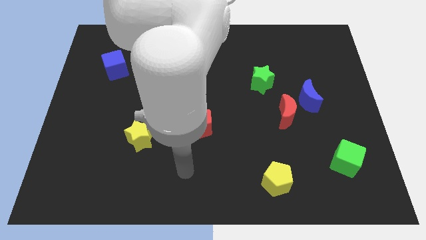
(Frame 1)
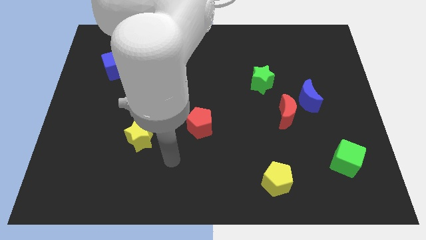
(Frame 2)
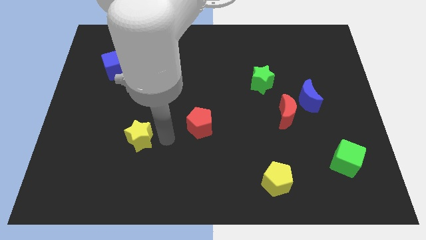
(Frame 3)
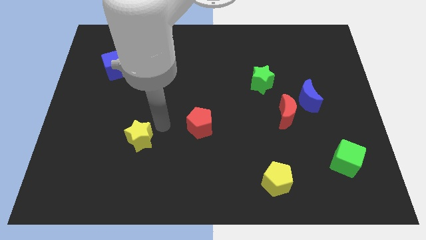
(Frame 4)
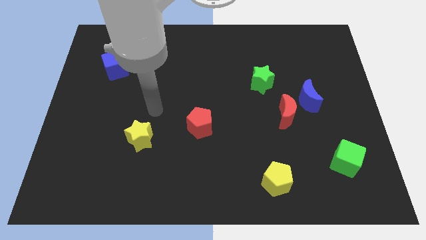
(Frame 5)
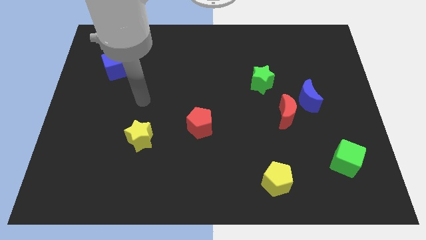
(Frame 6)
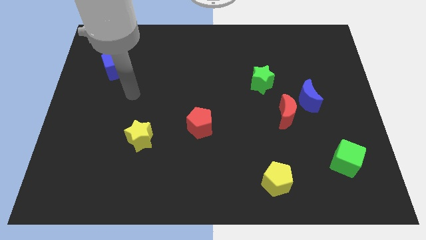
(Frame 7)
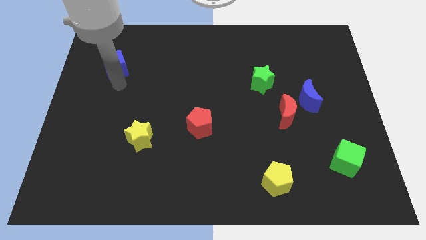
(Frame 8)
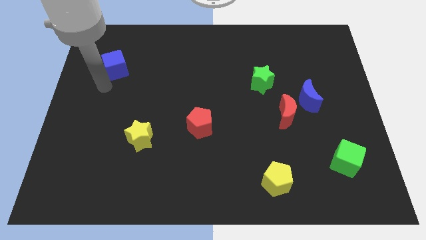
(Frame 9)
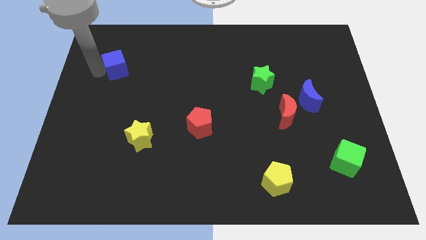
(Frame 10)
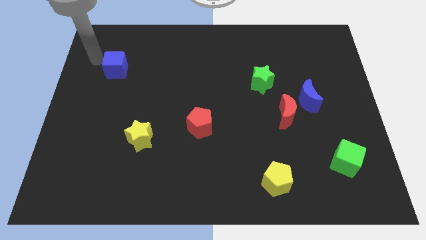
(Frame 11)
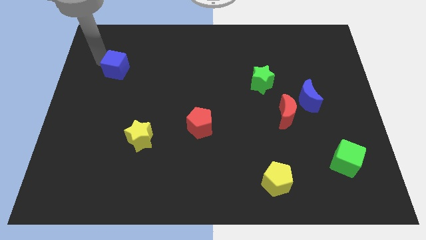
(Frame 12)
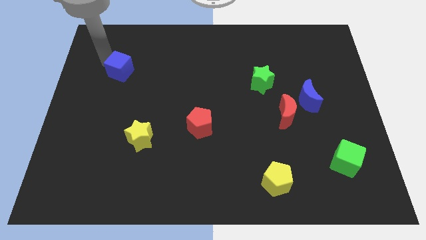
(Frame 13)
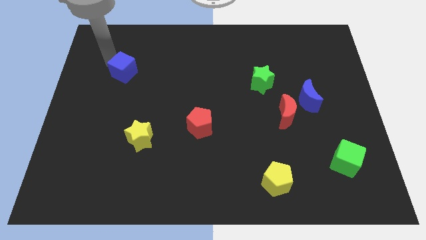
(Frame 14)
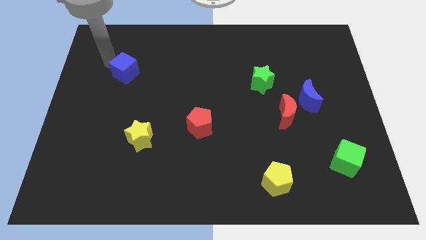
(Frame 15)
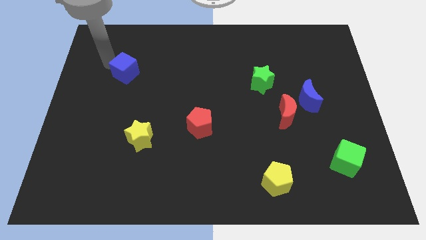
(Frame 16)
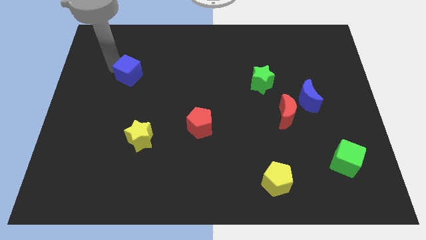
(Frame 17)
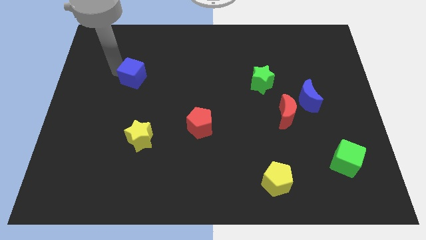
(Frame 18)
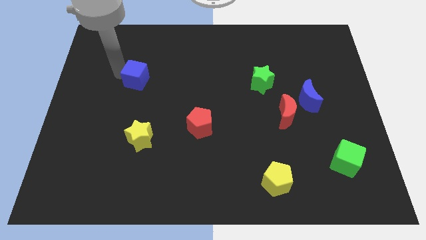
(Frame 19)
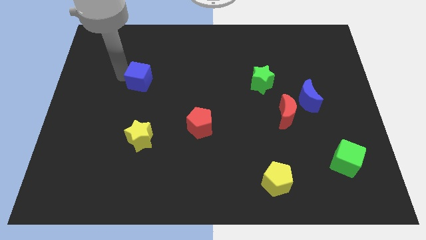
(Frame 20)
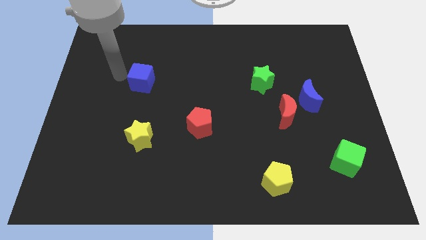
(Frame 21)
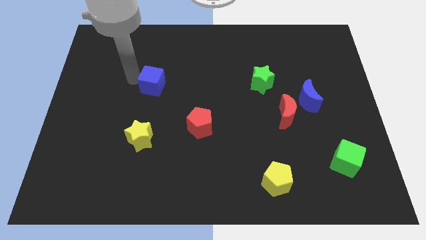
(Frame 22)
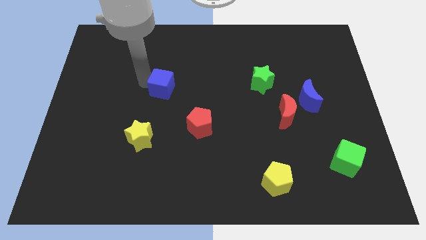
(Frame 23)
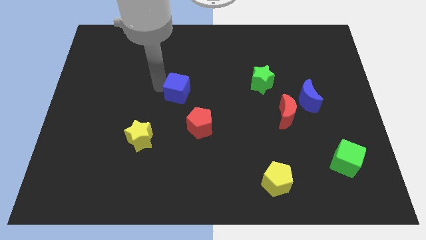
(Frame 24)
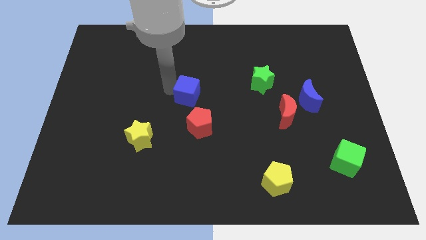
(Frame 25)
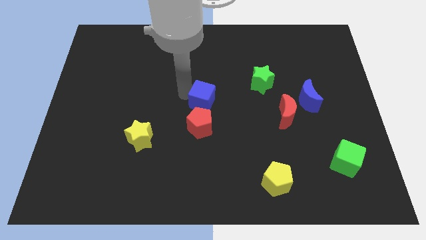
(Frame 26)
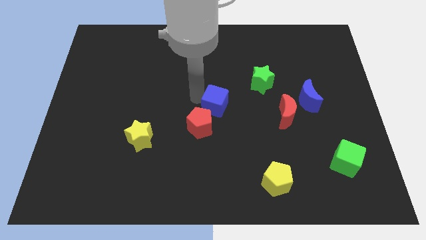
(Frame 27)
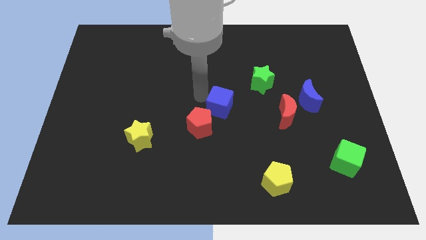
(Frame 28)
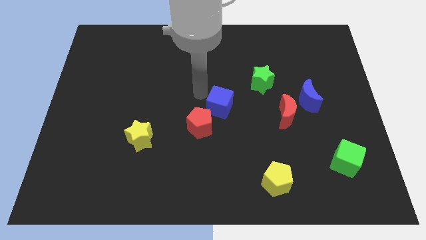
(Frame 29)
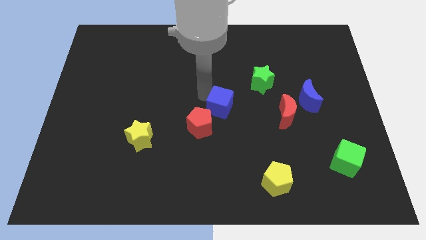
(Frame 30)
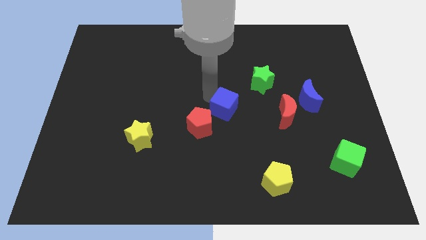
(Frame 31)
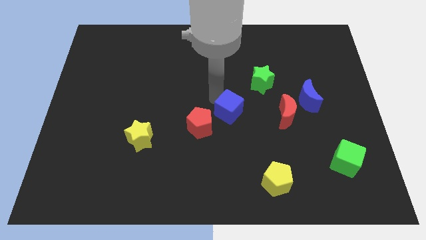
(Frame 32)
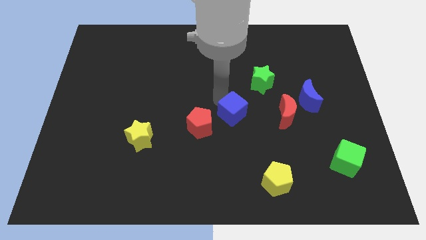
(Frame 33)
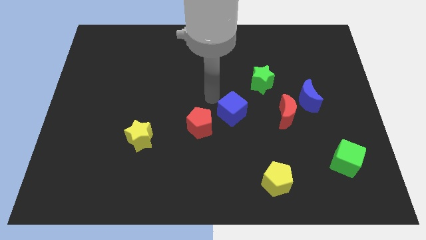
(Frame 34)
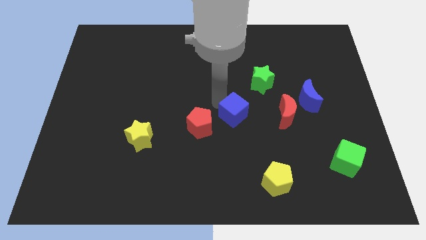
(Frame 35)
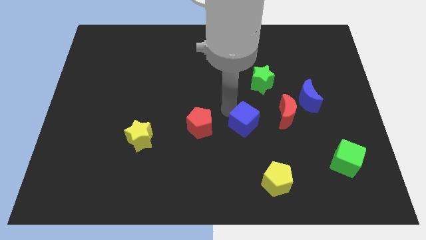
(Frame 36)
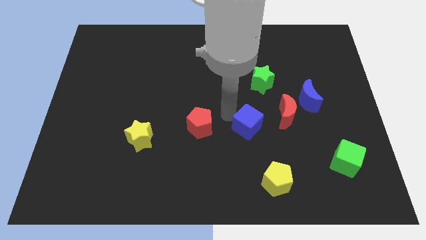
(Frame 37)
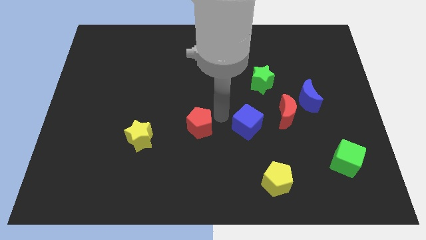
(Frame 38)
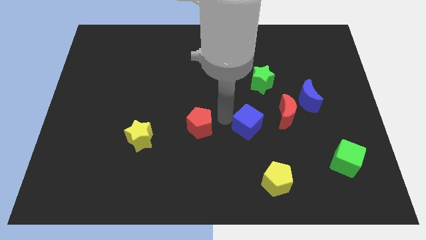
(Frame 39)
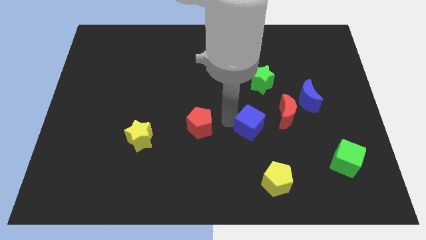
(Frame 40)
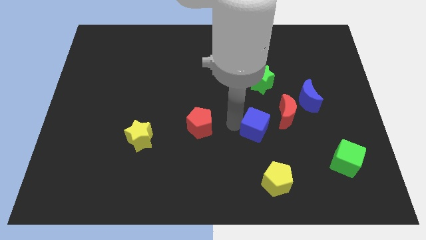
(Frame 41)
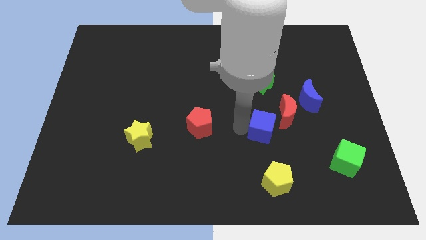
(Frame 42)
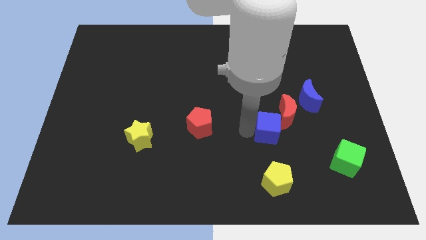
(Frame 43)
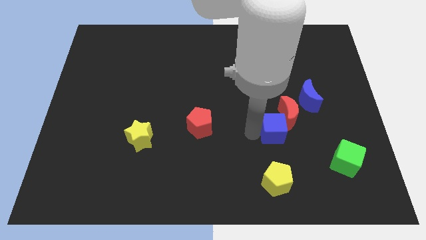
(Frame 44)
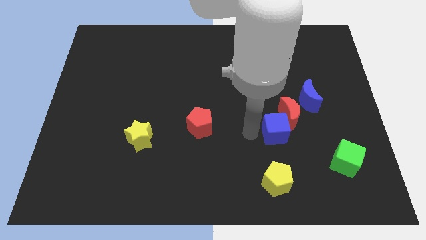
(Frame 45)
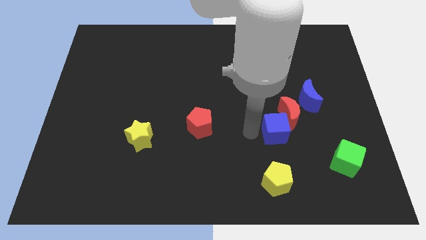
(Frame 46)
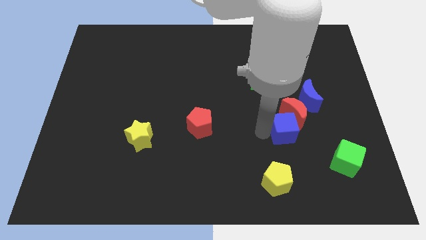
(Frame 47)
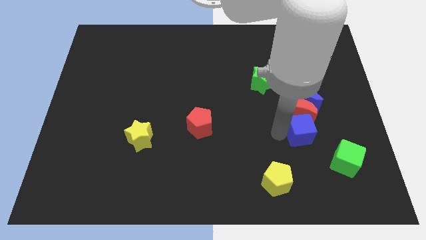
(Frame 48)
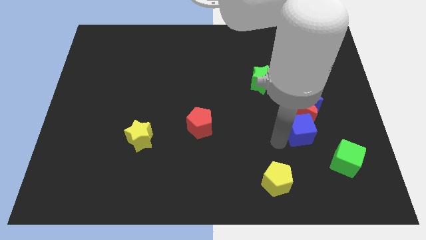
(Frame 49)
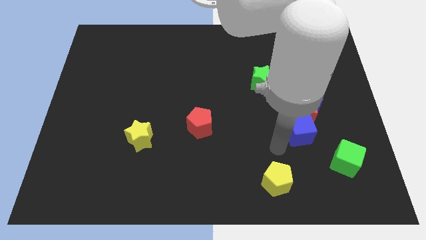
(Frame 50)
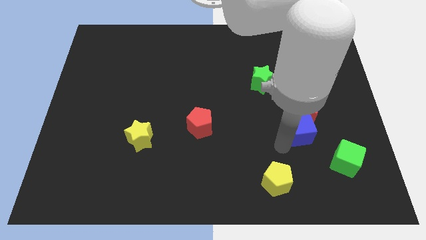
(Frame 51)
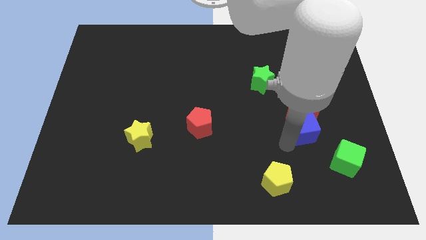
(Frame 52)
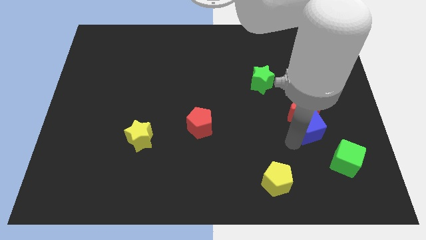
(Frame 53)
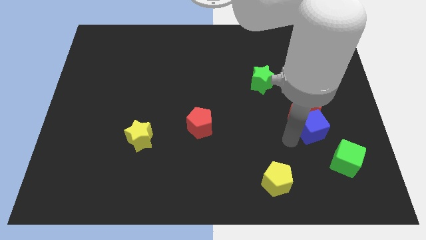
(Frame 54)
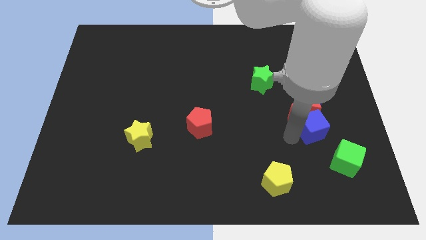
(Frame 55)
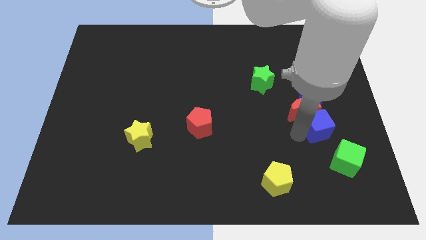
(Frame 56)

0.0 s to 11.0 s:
move the blue cube to the top of the green cube

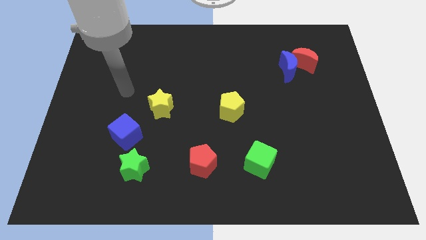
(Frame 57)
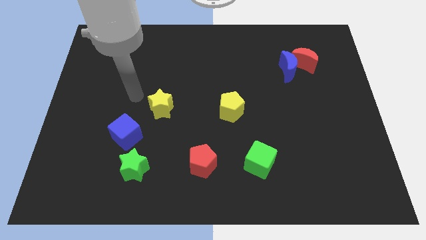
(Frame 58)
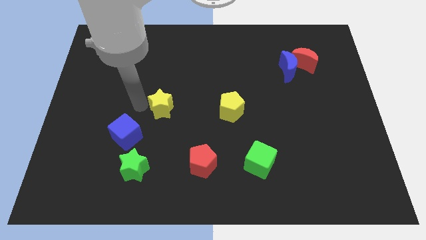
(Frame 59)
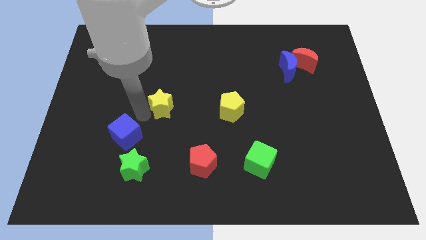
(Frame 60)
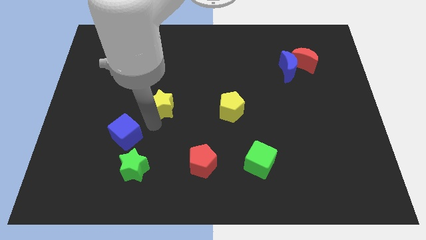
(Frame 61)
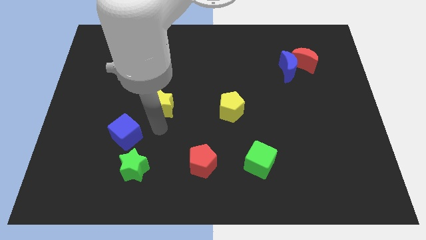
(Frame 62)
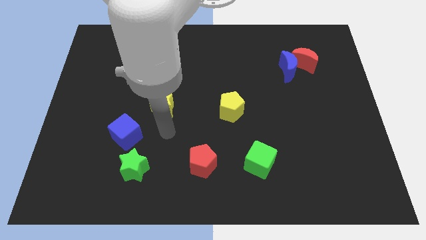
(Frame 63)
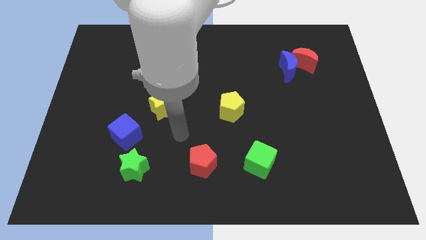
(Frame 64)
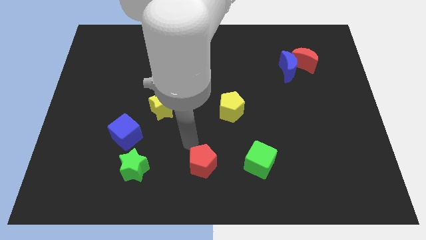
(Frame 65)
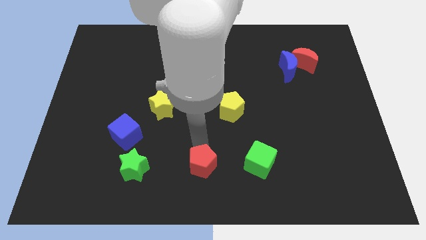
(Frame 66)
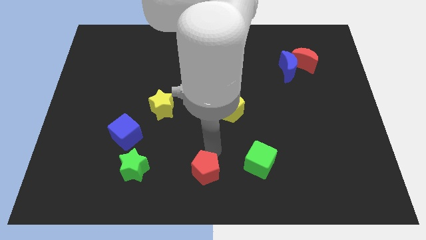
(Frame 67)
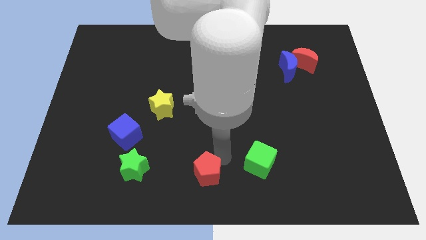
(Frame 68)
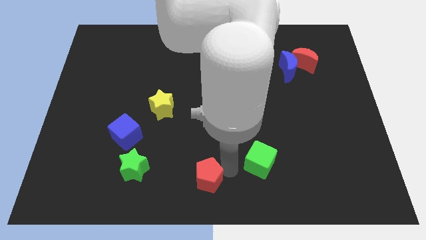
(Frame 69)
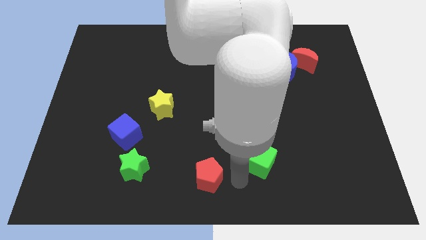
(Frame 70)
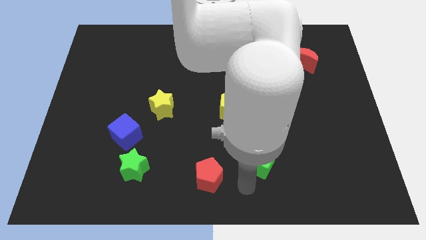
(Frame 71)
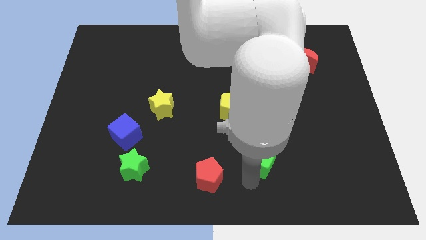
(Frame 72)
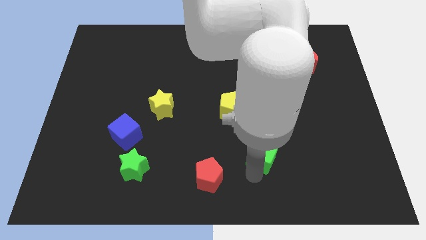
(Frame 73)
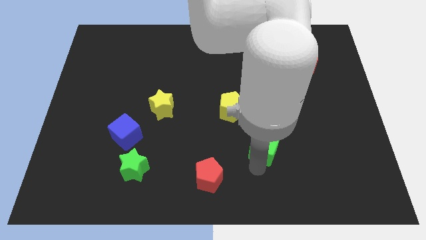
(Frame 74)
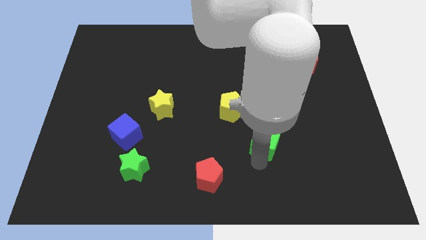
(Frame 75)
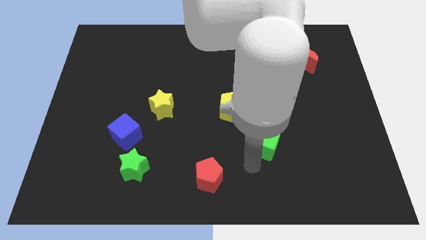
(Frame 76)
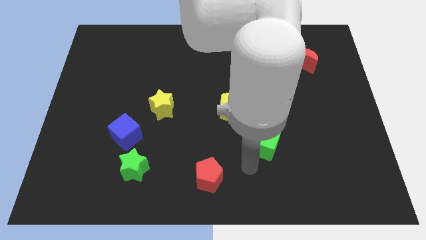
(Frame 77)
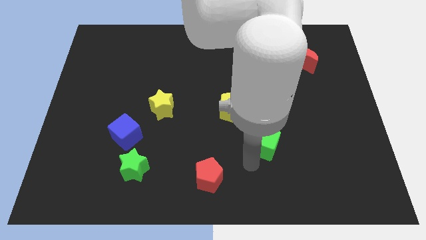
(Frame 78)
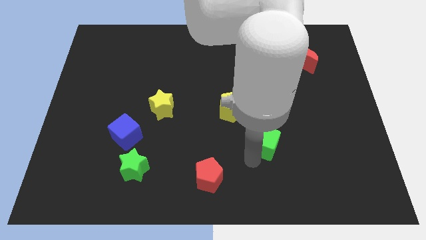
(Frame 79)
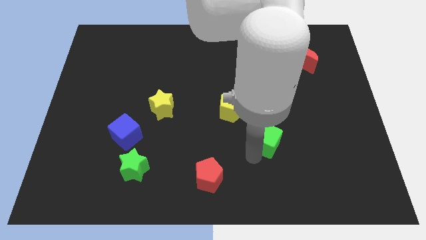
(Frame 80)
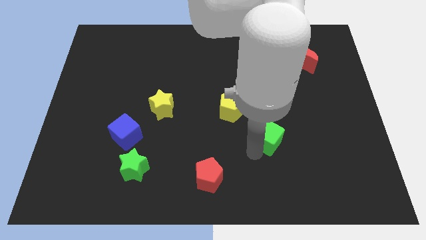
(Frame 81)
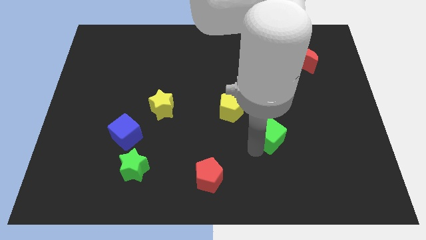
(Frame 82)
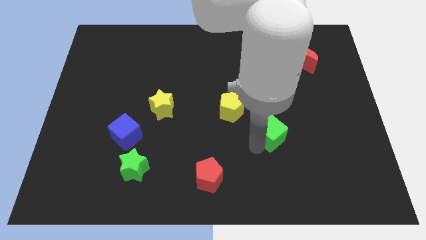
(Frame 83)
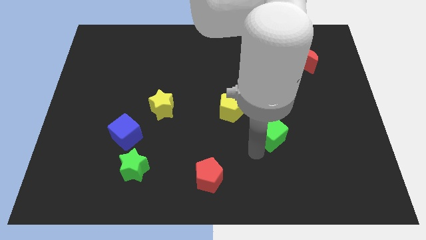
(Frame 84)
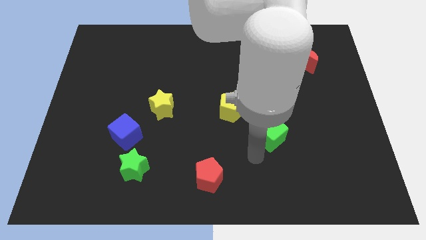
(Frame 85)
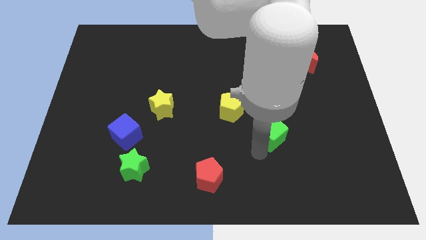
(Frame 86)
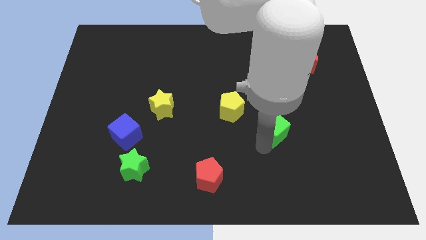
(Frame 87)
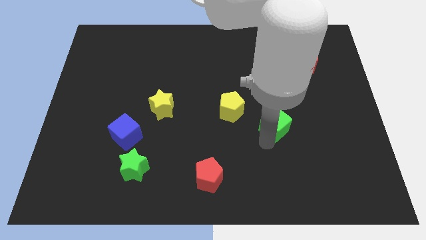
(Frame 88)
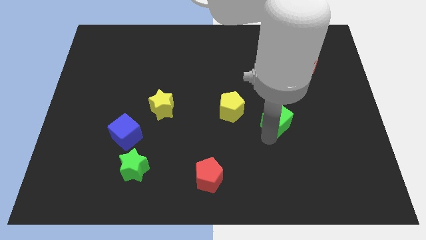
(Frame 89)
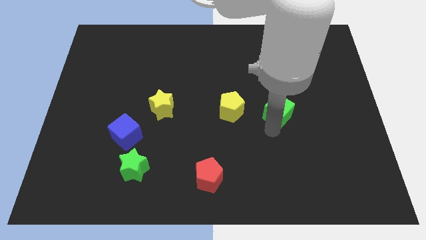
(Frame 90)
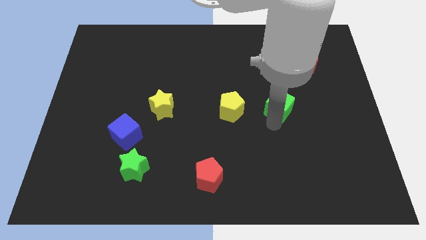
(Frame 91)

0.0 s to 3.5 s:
slide the green cube below the blue moon
